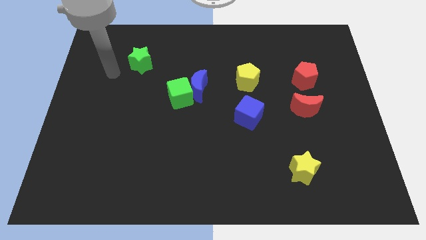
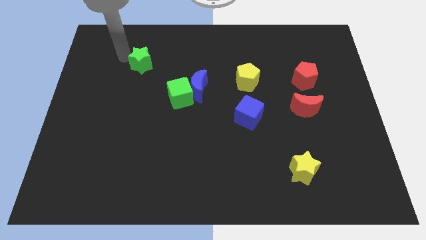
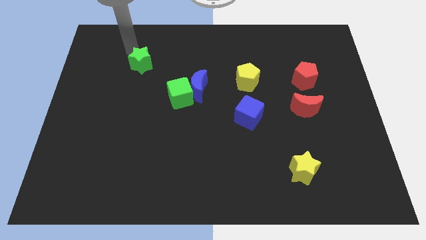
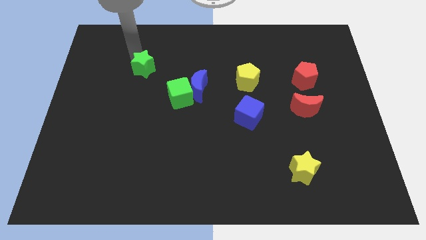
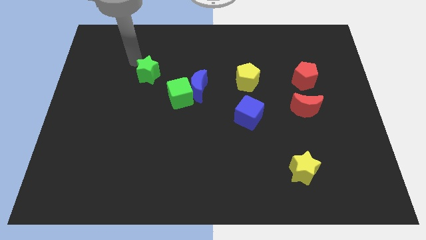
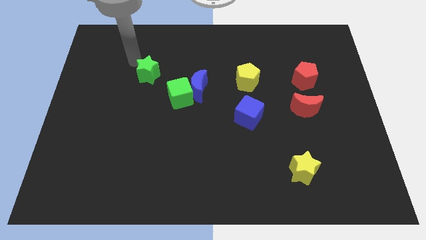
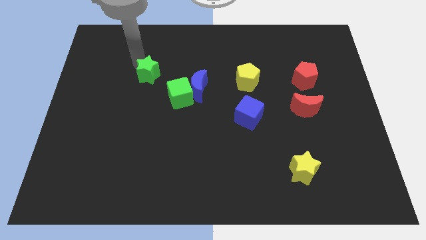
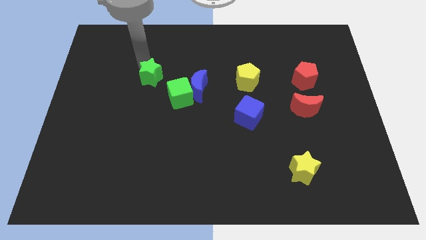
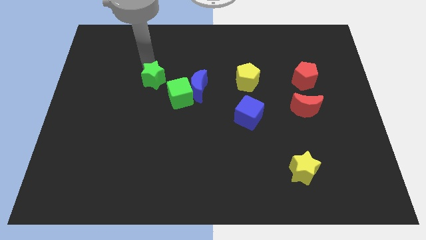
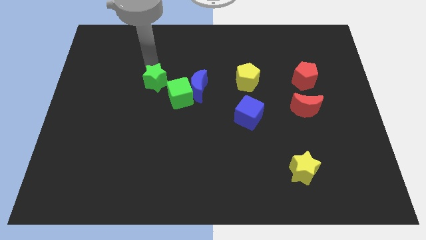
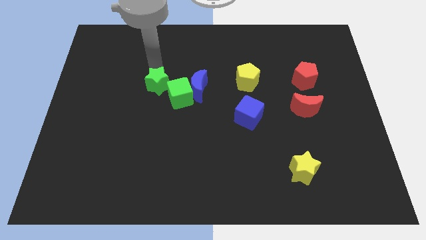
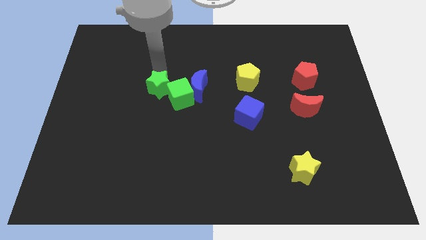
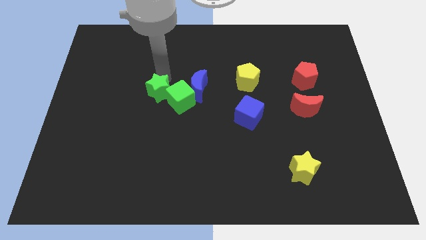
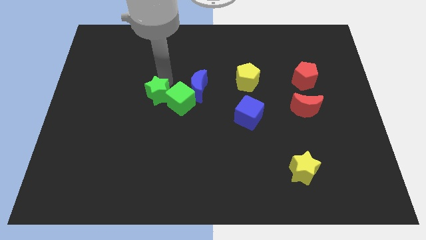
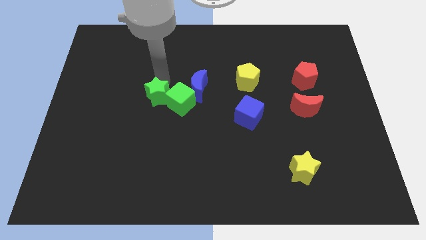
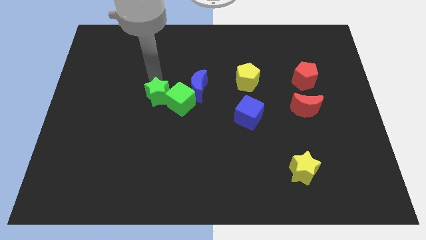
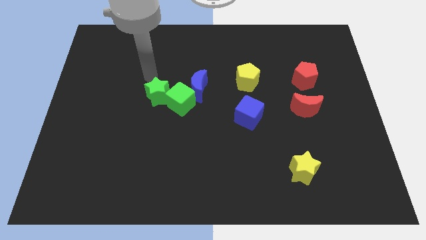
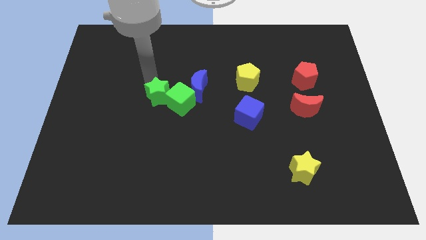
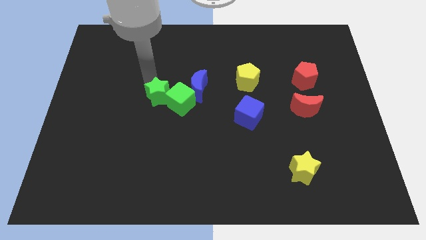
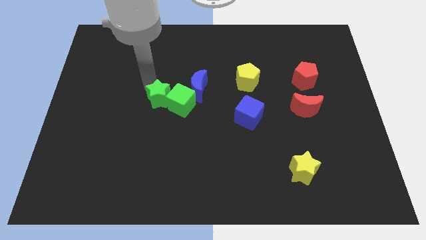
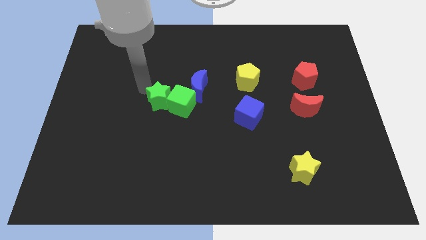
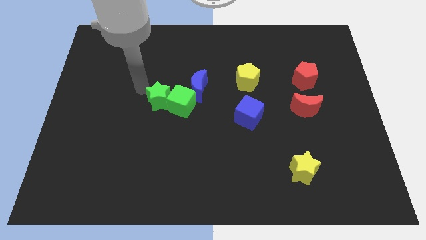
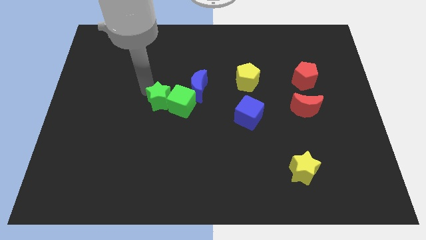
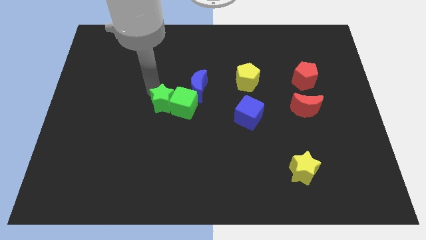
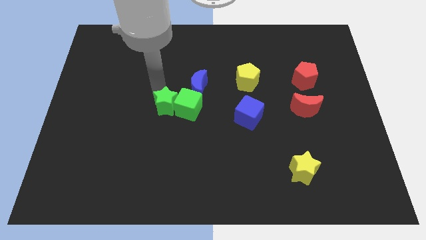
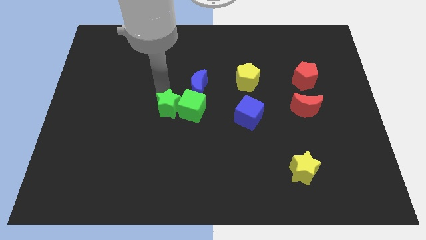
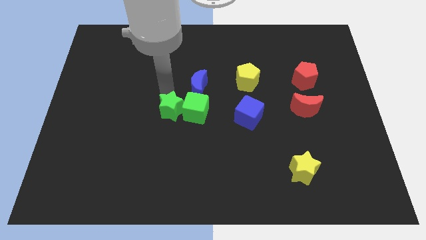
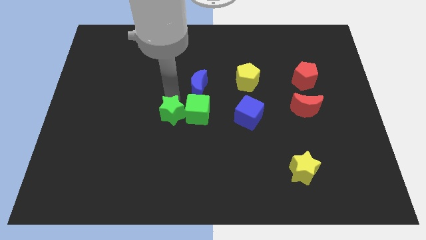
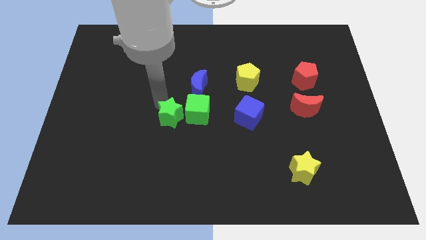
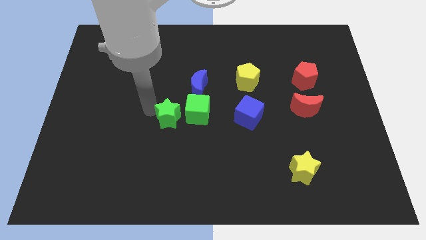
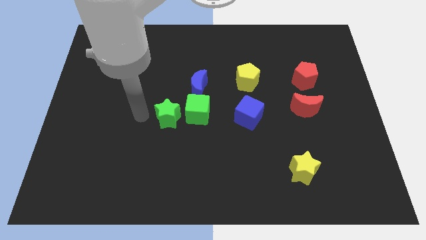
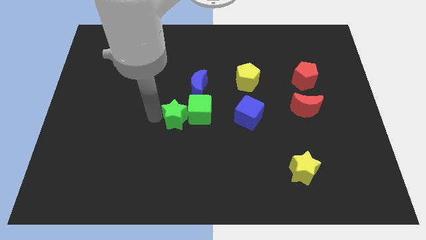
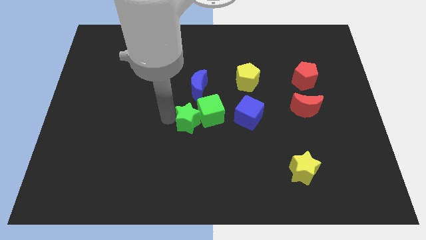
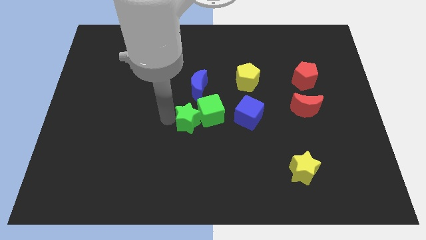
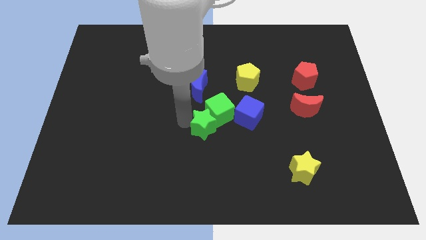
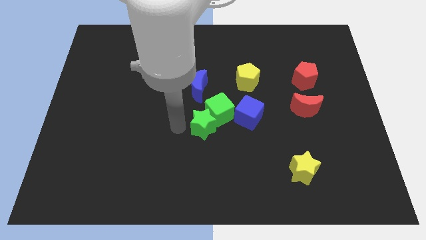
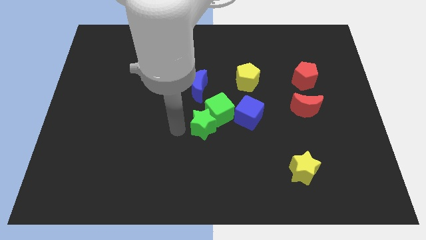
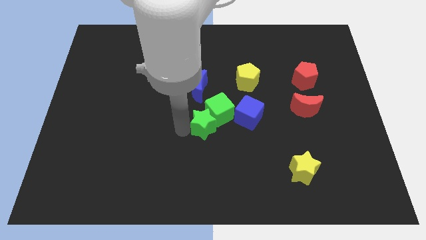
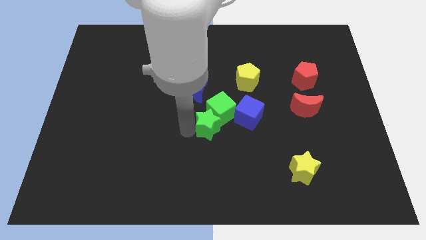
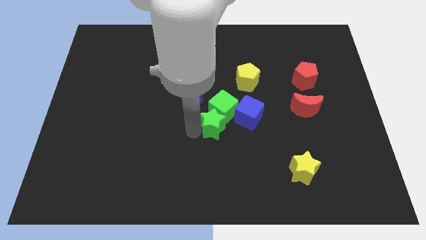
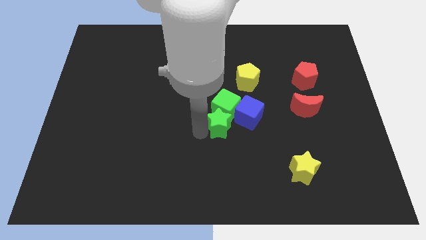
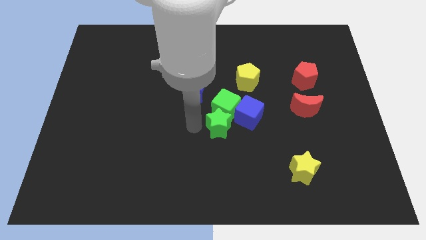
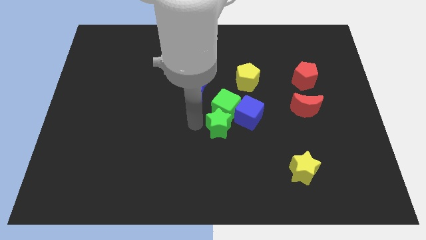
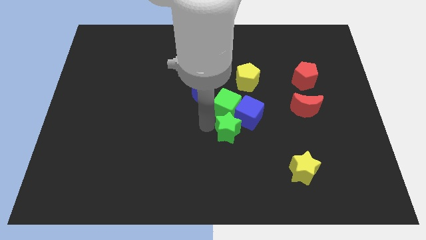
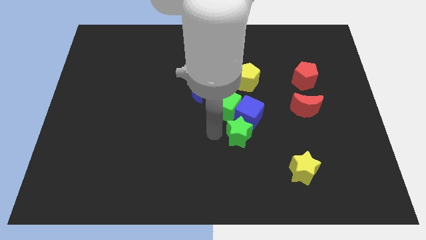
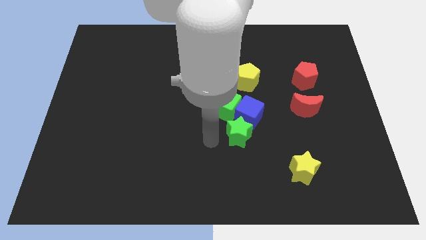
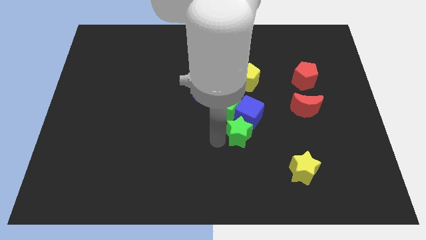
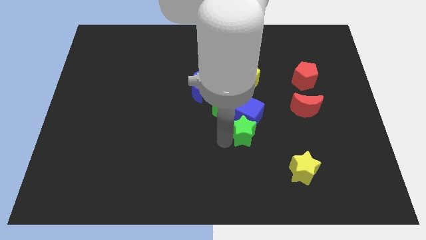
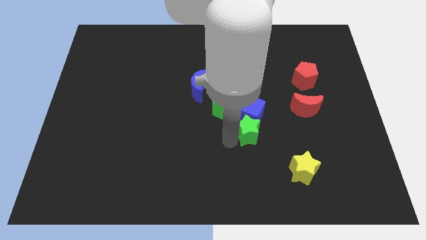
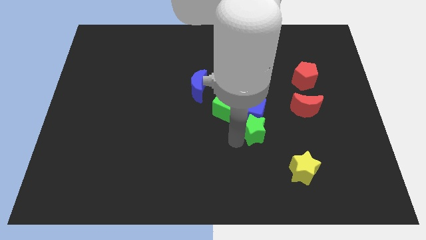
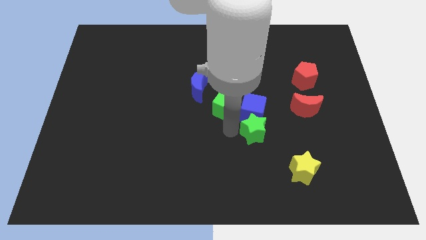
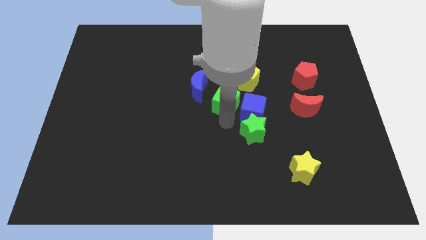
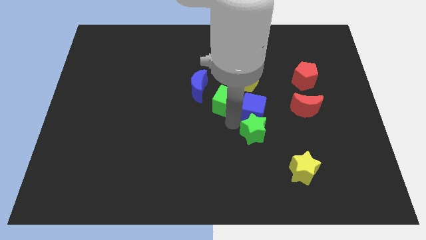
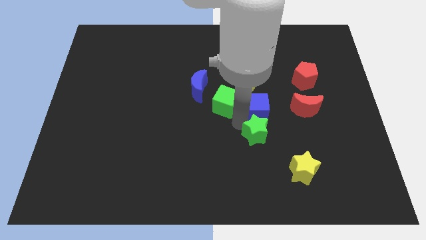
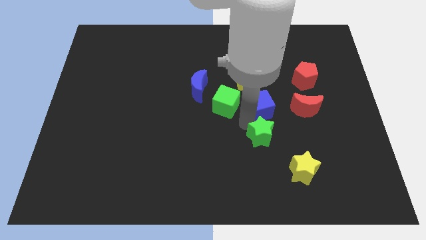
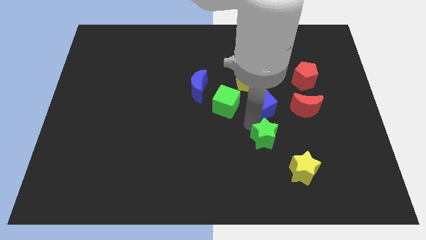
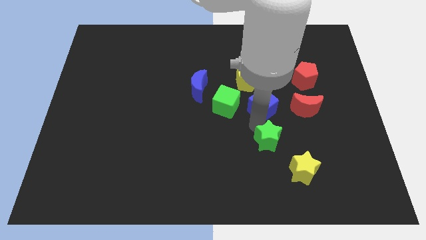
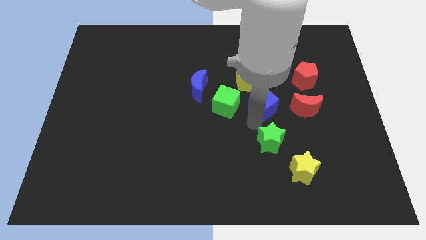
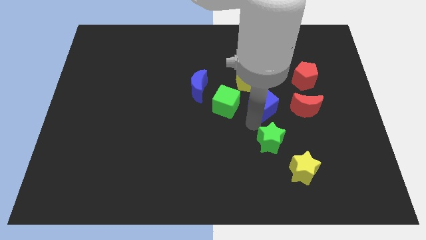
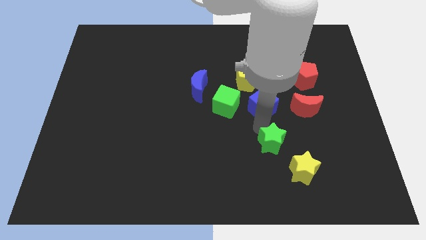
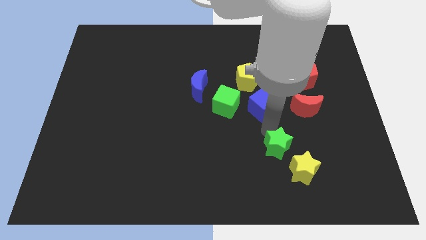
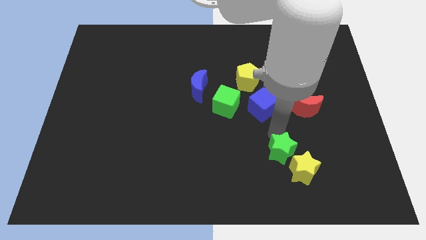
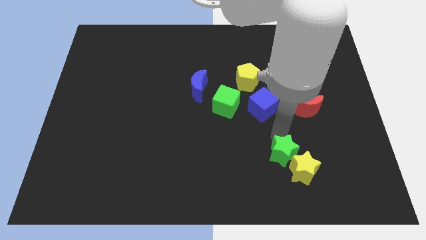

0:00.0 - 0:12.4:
move the green star next to the yellow star

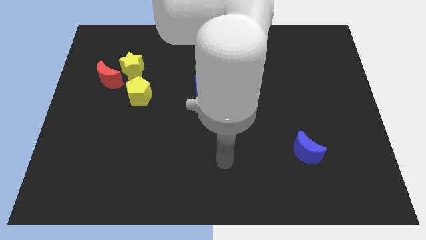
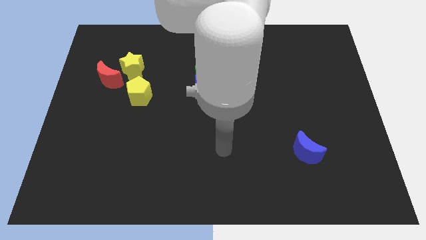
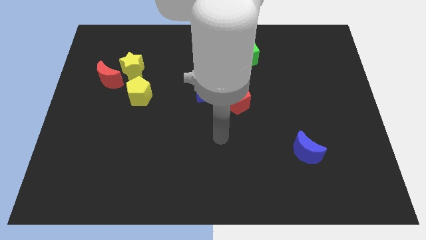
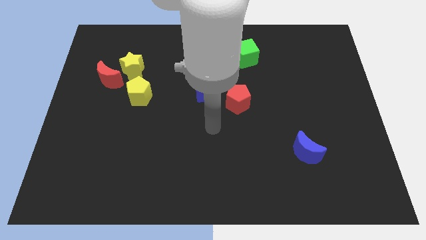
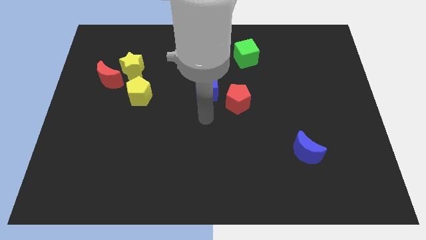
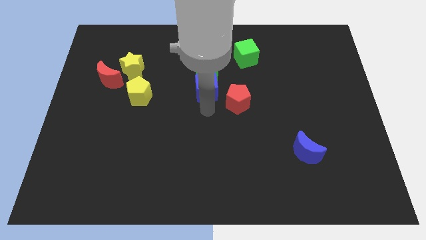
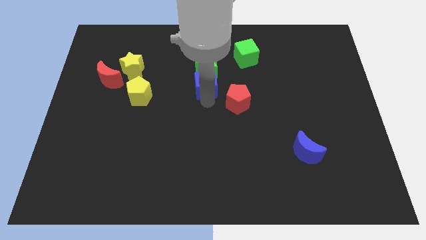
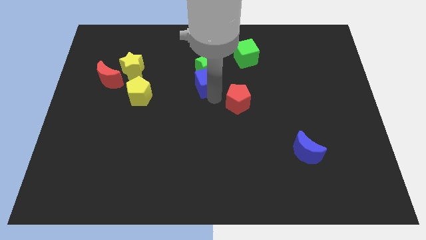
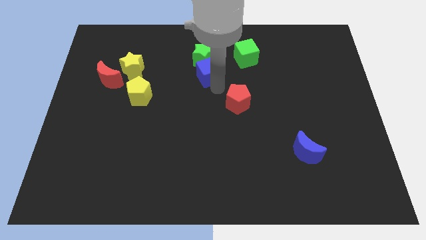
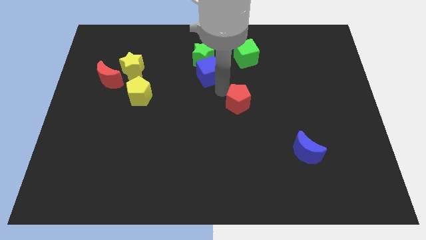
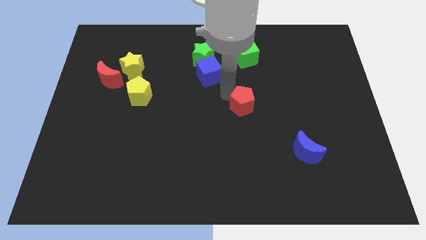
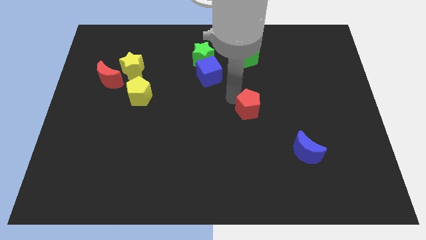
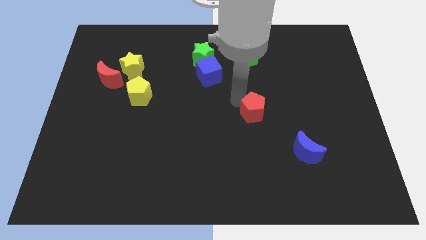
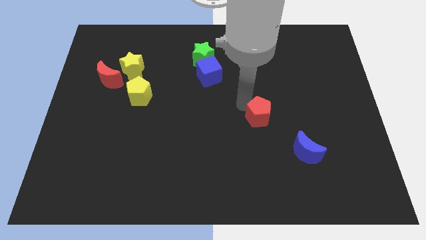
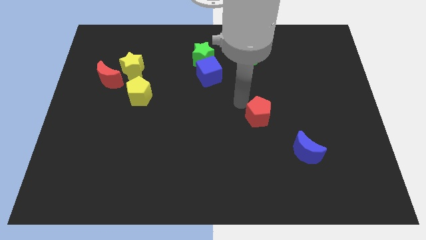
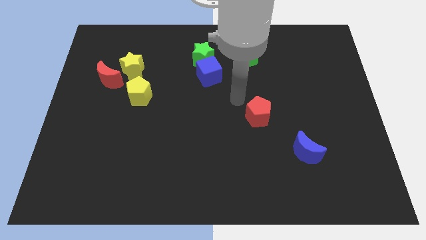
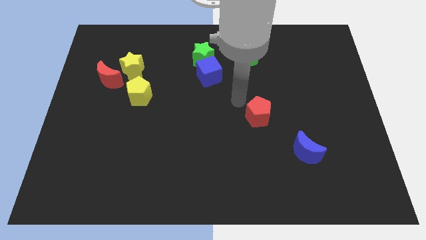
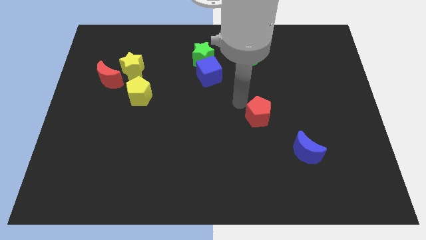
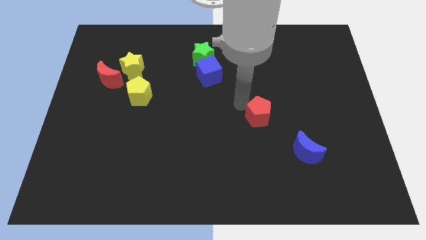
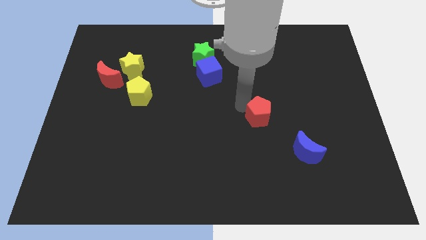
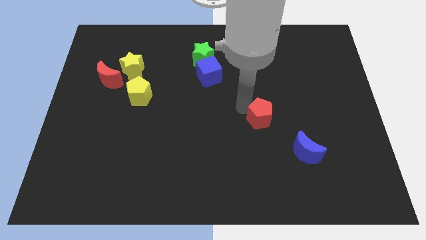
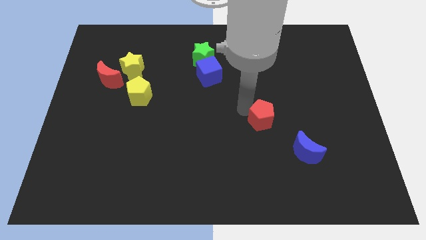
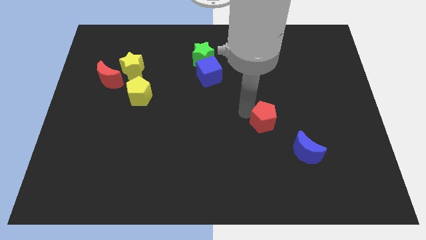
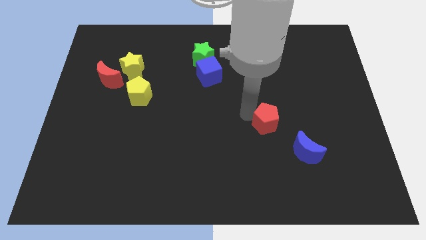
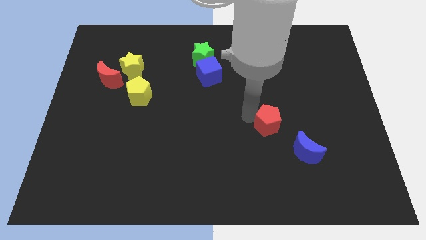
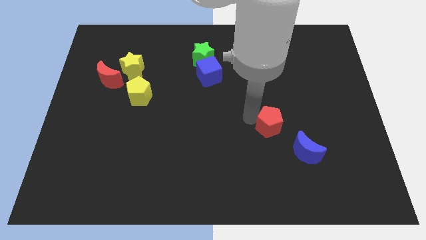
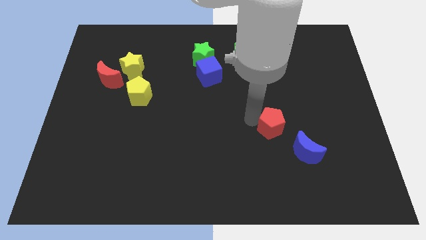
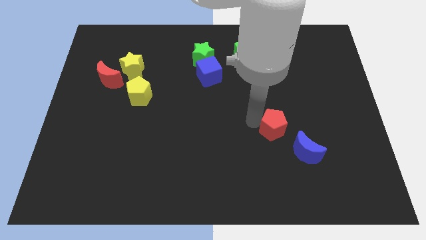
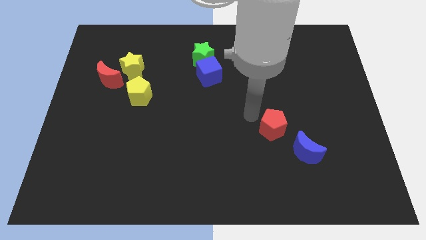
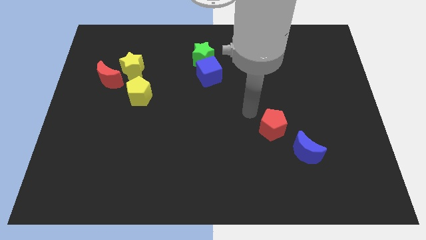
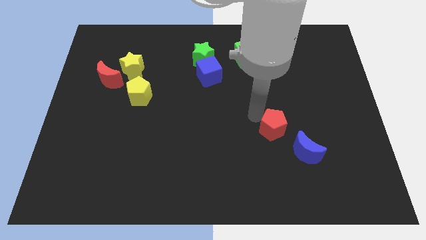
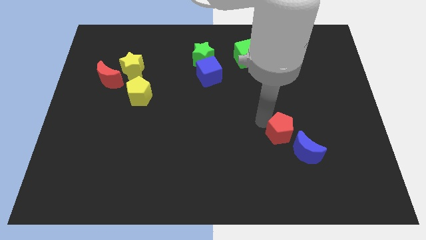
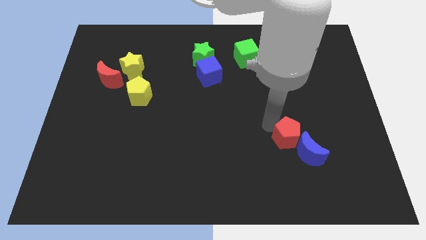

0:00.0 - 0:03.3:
push the red pentagon to the blue moon
